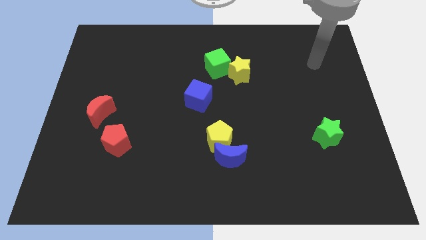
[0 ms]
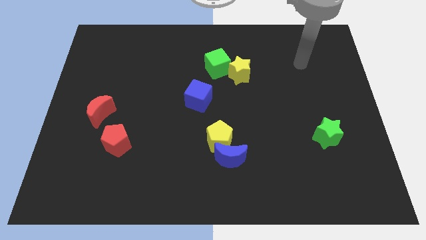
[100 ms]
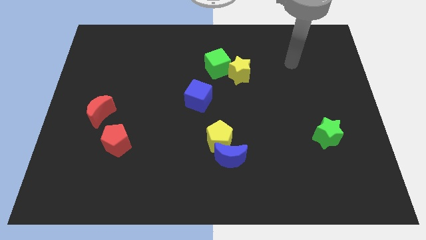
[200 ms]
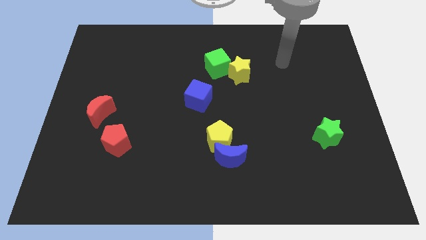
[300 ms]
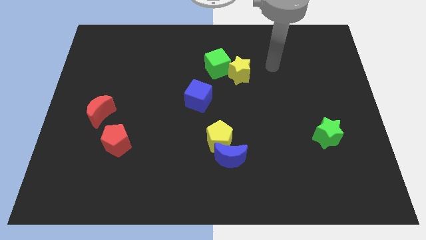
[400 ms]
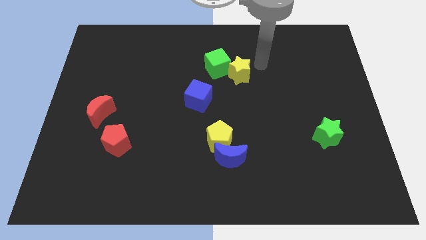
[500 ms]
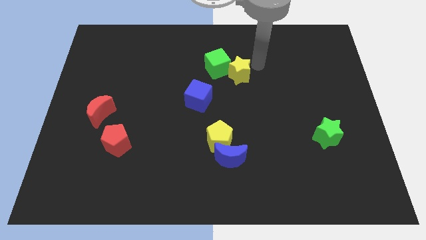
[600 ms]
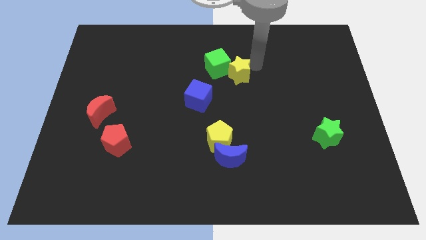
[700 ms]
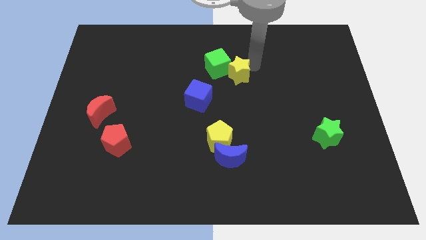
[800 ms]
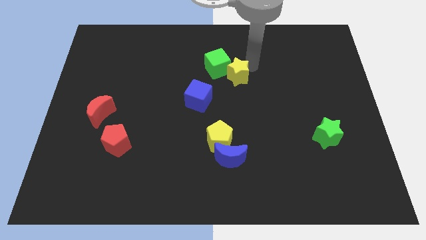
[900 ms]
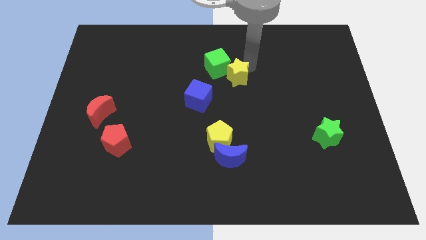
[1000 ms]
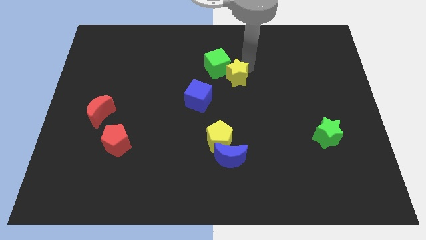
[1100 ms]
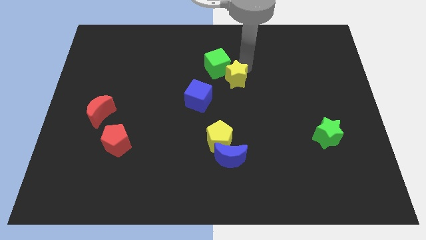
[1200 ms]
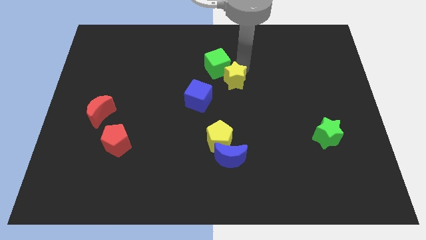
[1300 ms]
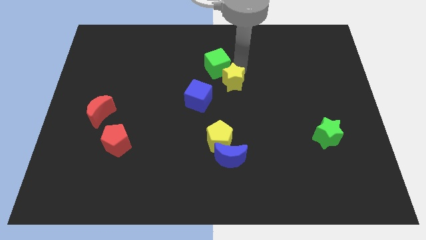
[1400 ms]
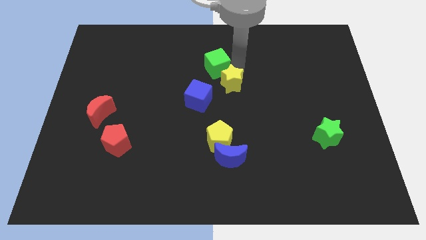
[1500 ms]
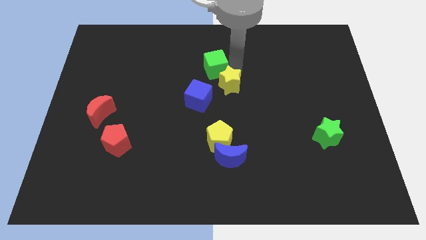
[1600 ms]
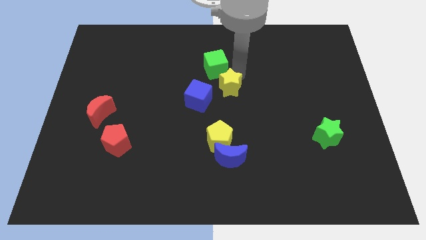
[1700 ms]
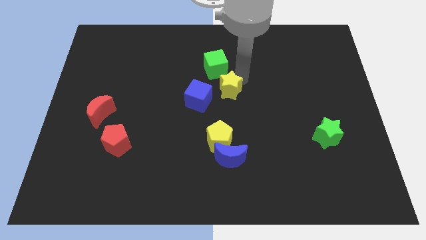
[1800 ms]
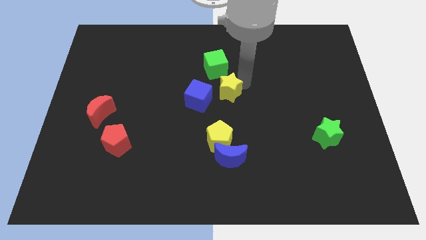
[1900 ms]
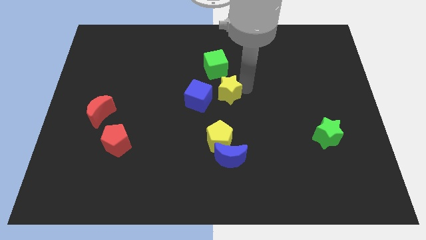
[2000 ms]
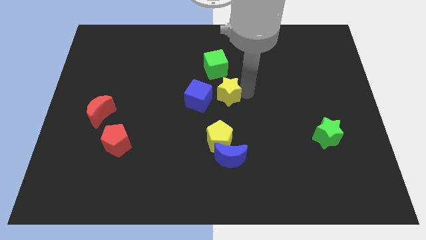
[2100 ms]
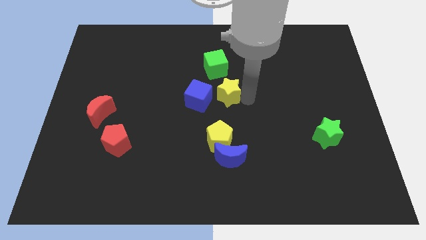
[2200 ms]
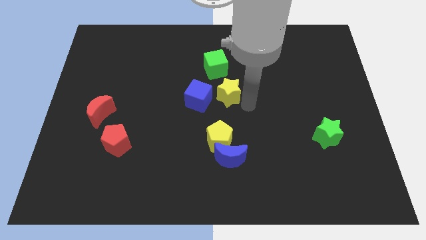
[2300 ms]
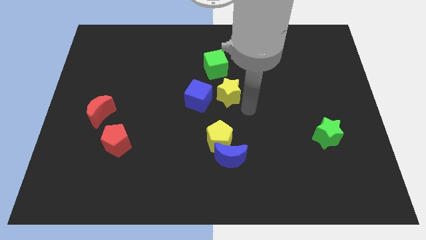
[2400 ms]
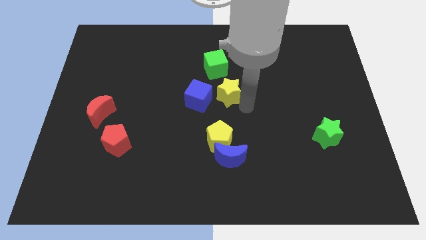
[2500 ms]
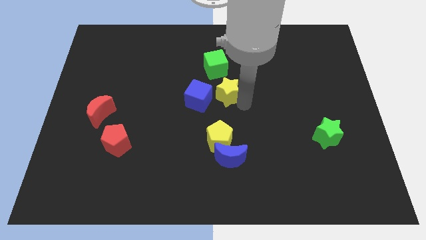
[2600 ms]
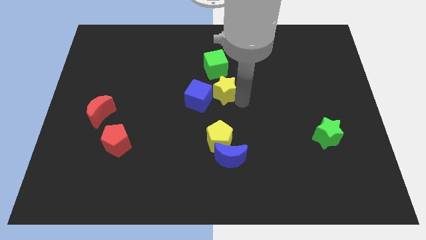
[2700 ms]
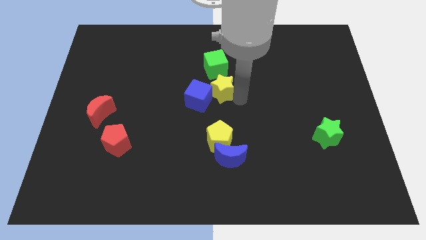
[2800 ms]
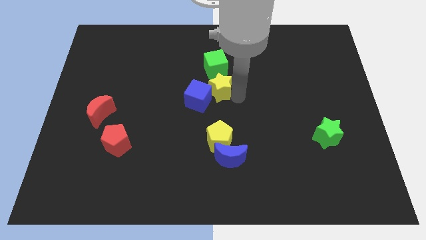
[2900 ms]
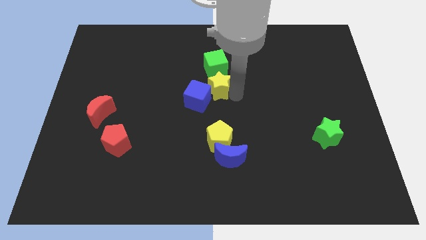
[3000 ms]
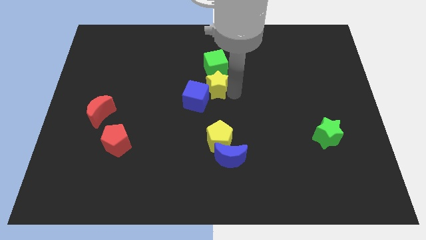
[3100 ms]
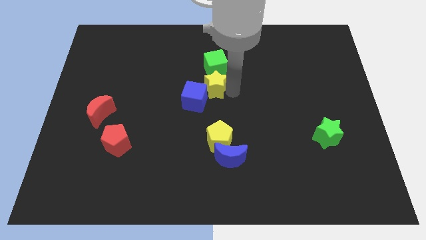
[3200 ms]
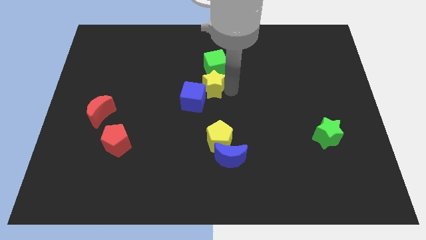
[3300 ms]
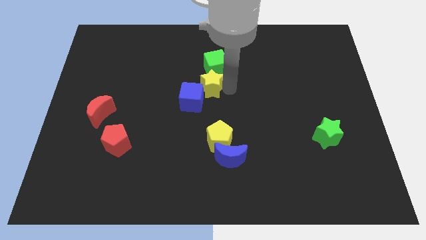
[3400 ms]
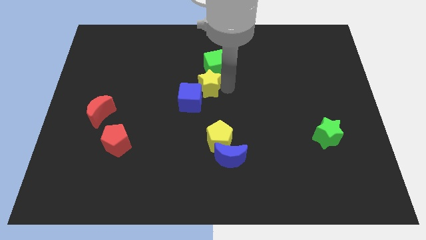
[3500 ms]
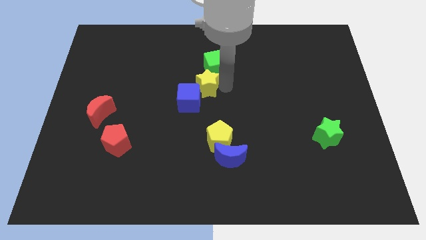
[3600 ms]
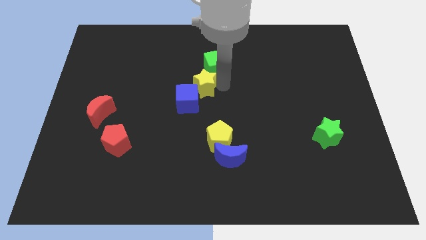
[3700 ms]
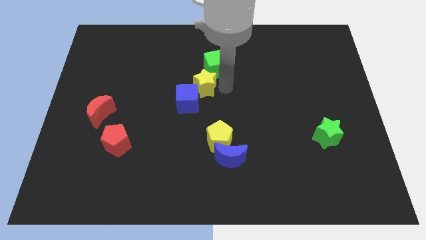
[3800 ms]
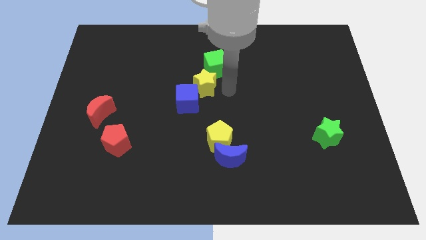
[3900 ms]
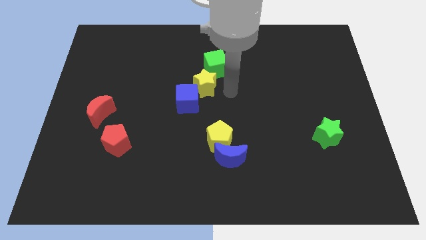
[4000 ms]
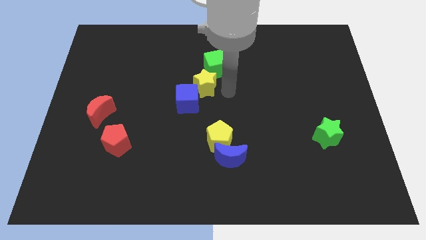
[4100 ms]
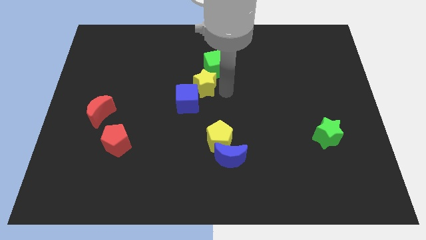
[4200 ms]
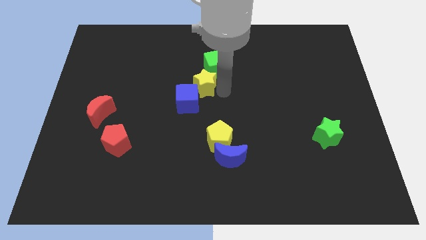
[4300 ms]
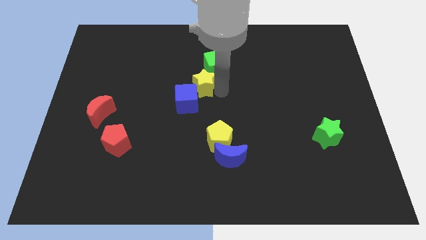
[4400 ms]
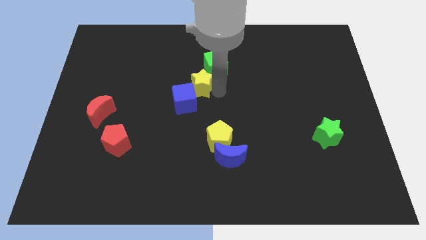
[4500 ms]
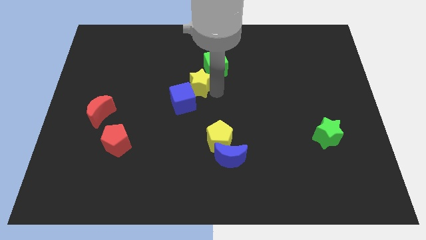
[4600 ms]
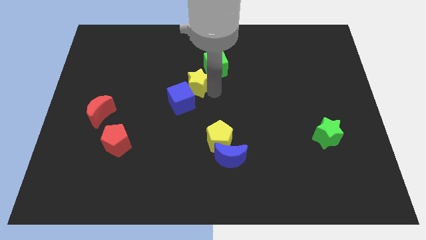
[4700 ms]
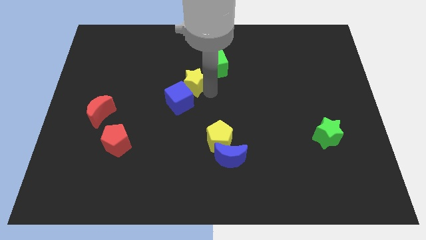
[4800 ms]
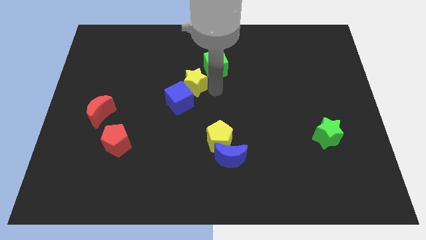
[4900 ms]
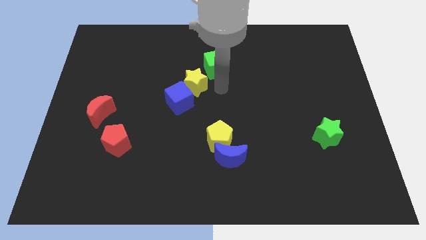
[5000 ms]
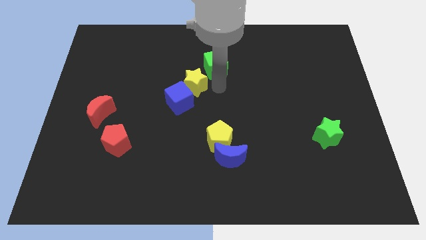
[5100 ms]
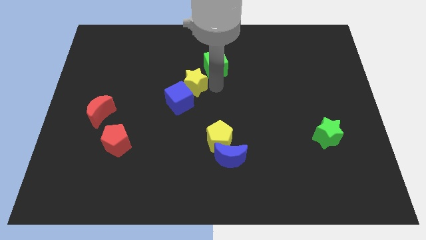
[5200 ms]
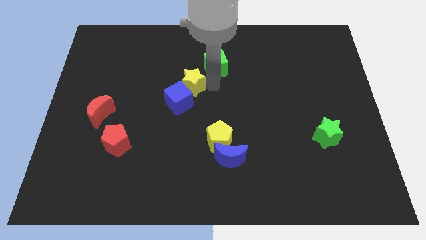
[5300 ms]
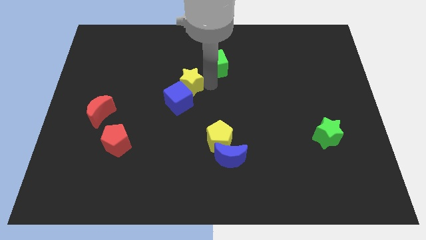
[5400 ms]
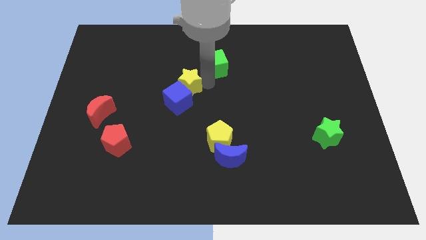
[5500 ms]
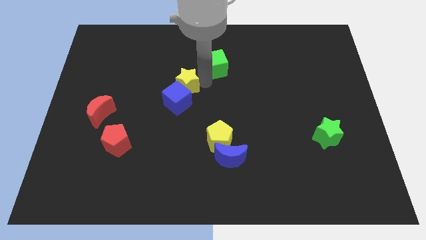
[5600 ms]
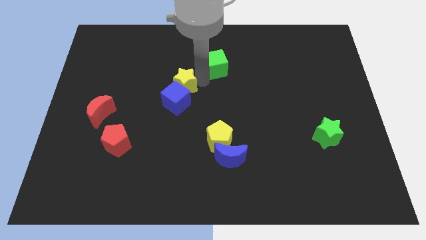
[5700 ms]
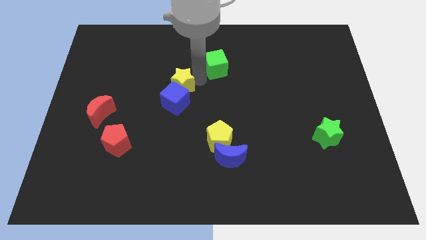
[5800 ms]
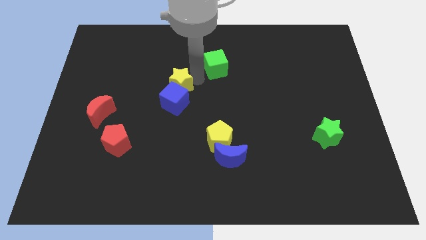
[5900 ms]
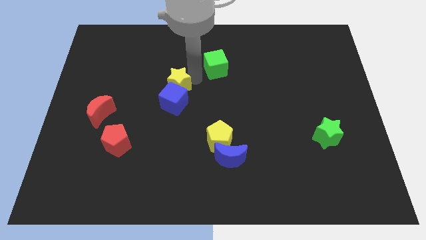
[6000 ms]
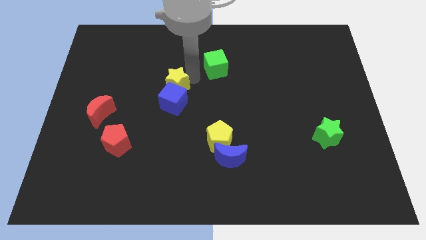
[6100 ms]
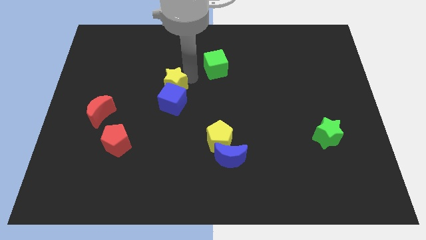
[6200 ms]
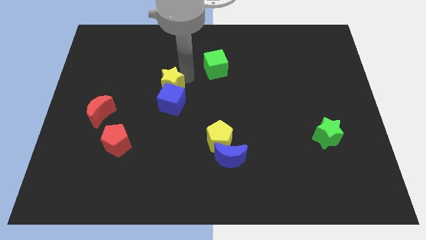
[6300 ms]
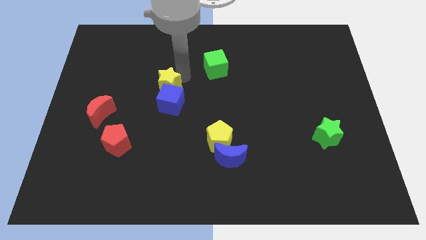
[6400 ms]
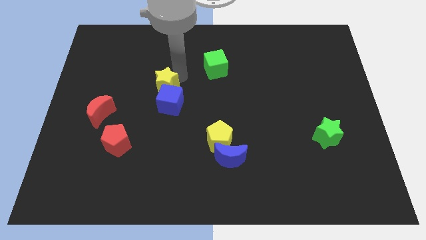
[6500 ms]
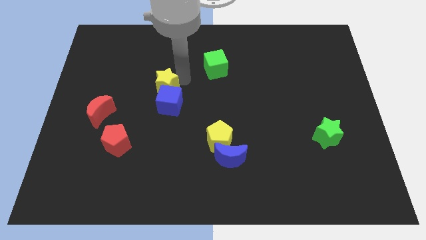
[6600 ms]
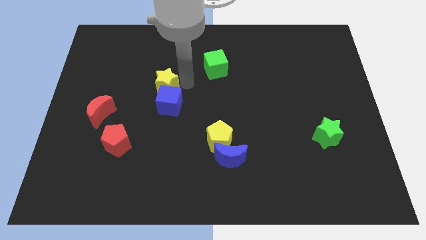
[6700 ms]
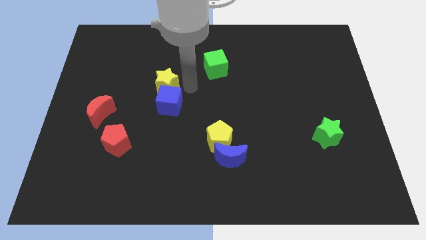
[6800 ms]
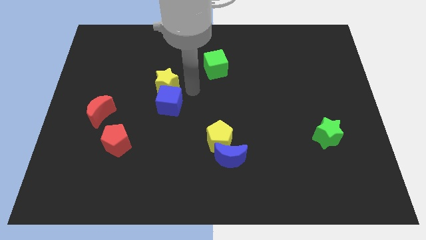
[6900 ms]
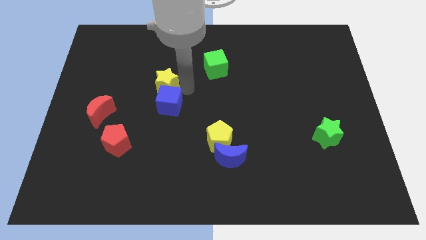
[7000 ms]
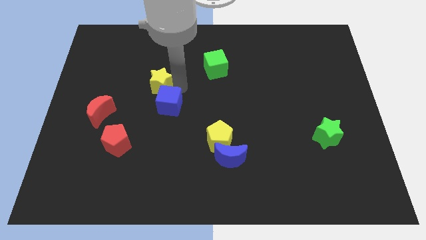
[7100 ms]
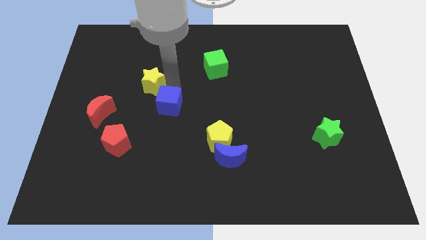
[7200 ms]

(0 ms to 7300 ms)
slide the yellow star left
